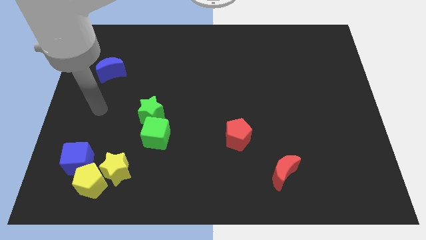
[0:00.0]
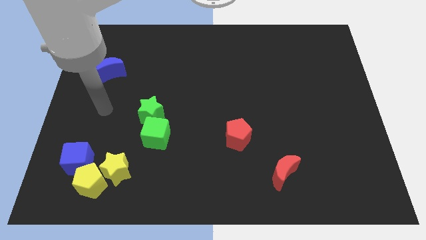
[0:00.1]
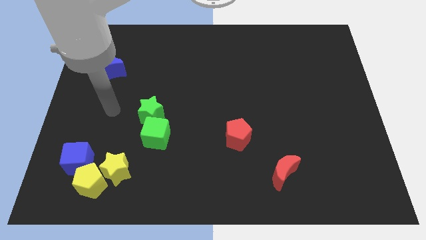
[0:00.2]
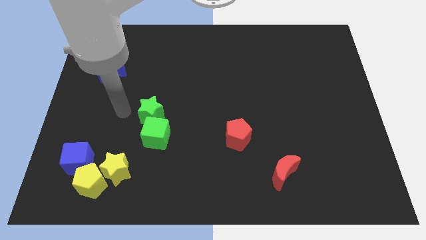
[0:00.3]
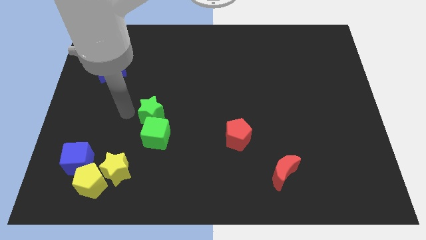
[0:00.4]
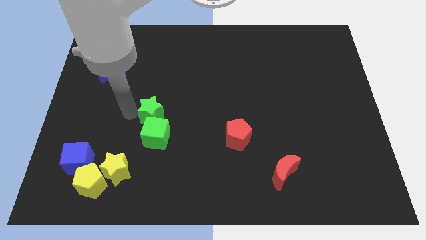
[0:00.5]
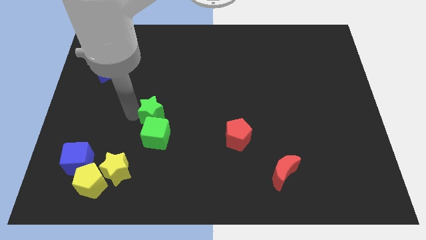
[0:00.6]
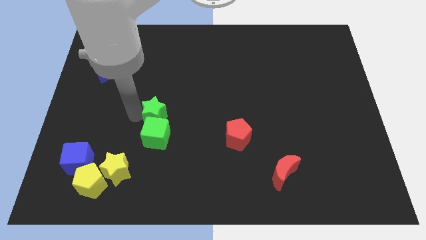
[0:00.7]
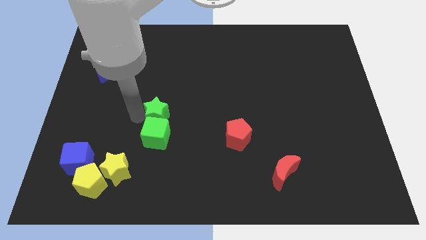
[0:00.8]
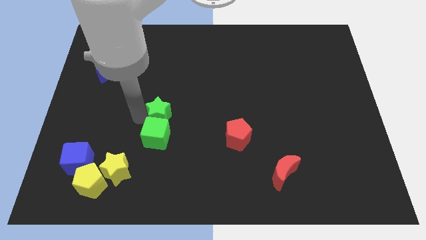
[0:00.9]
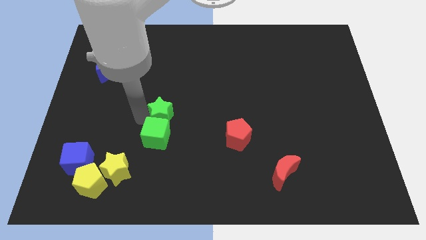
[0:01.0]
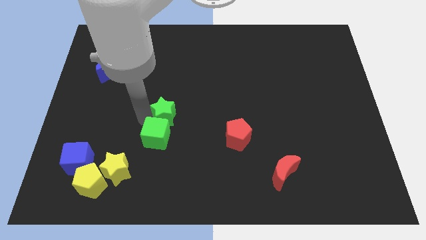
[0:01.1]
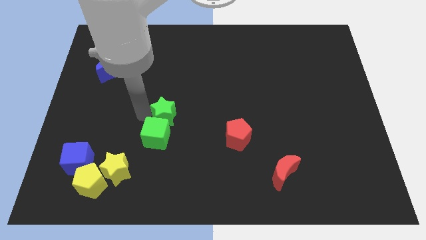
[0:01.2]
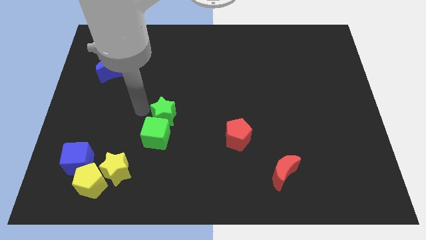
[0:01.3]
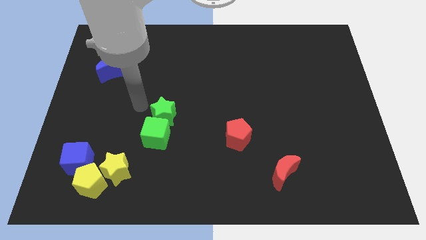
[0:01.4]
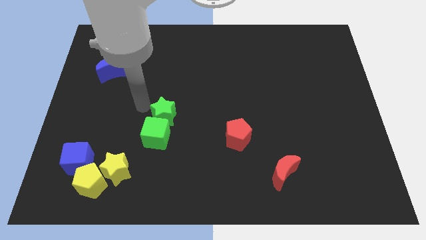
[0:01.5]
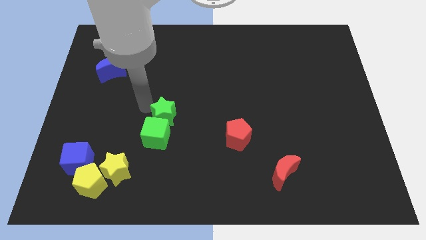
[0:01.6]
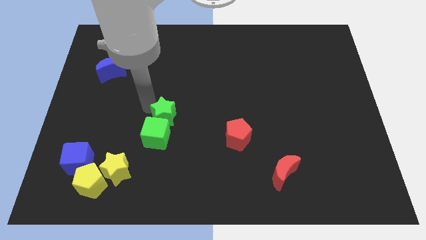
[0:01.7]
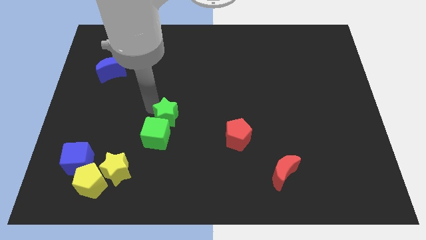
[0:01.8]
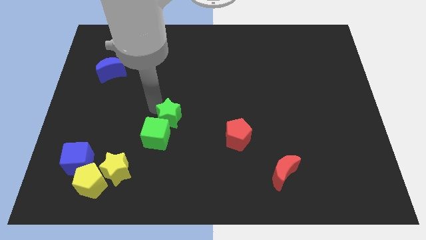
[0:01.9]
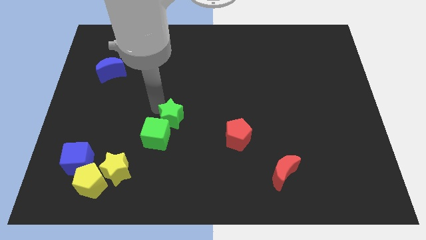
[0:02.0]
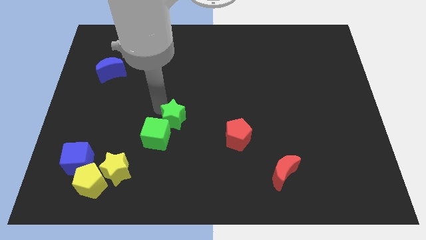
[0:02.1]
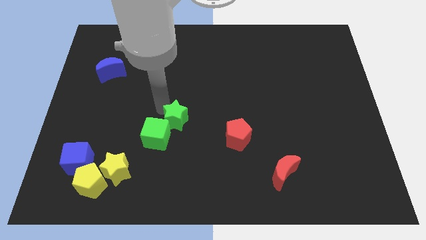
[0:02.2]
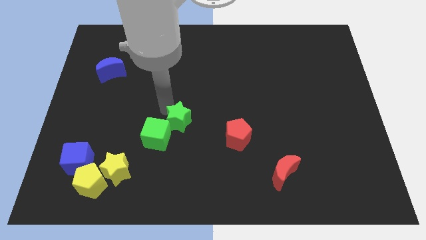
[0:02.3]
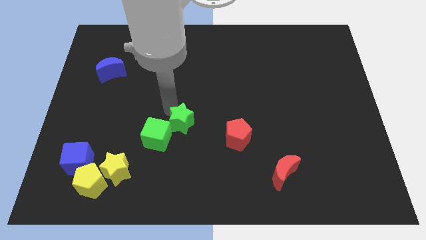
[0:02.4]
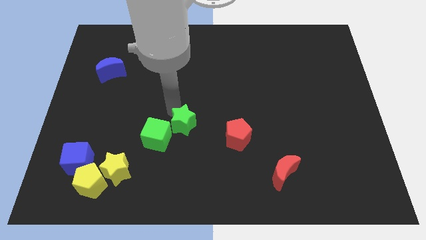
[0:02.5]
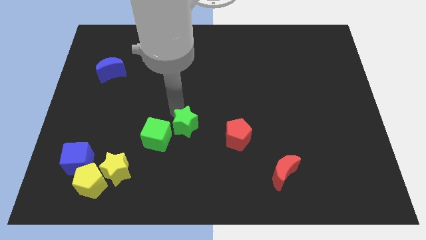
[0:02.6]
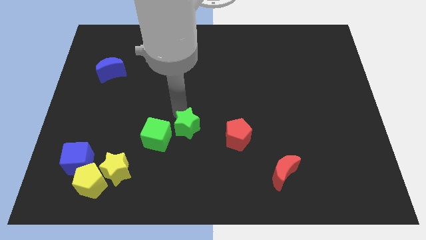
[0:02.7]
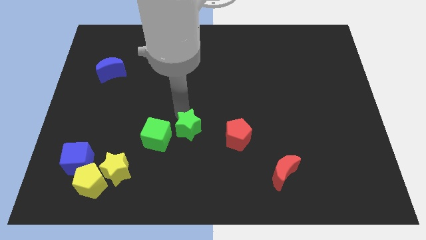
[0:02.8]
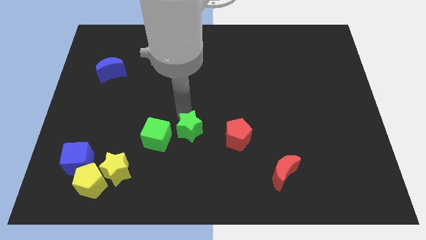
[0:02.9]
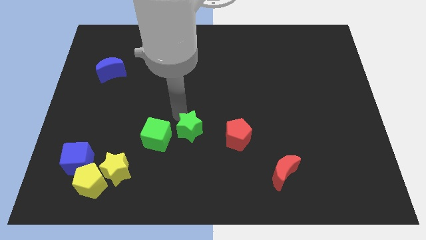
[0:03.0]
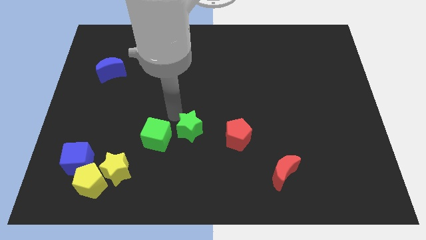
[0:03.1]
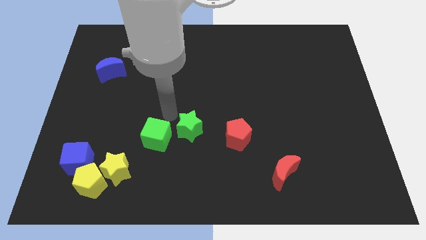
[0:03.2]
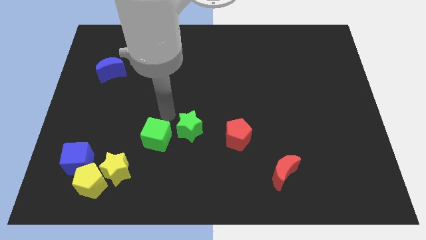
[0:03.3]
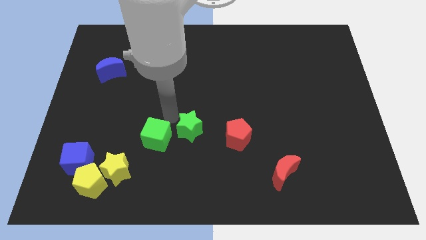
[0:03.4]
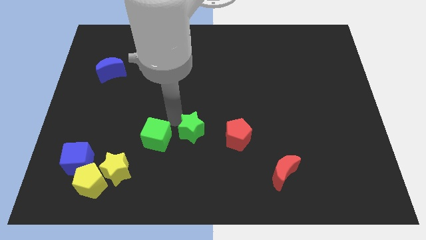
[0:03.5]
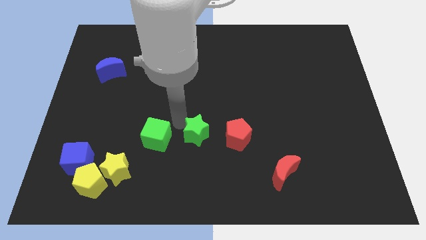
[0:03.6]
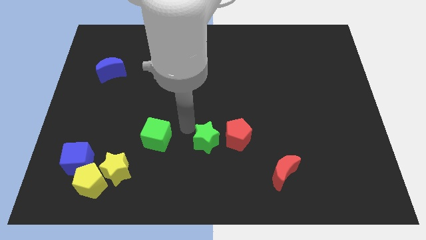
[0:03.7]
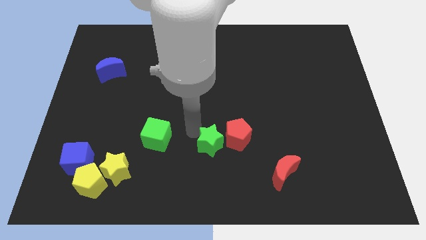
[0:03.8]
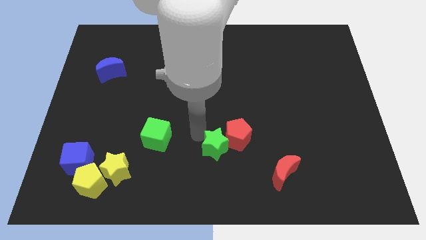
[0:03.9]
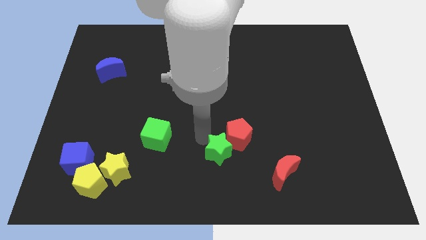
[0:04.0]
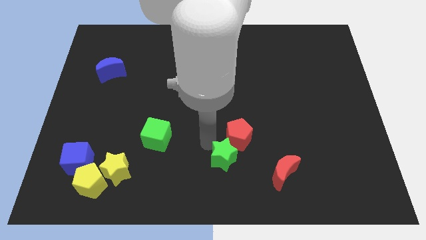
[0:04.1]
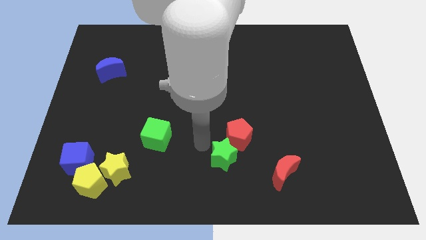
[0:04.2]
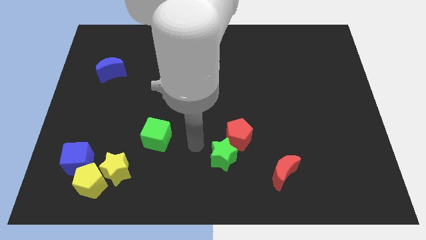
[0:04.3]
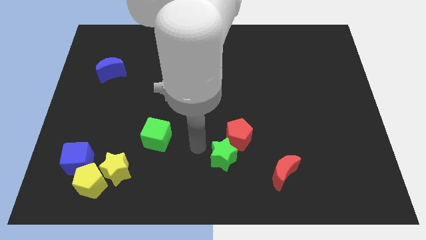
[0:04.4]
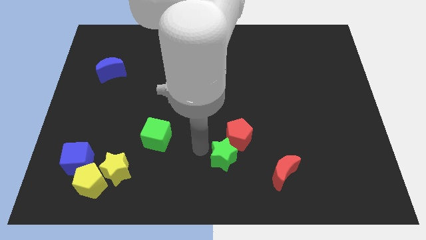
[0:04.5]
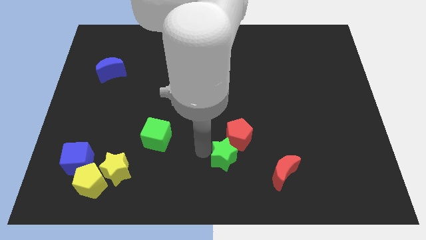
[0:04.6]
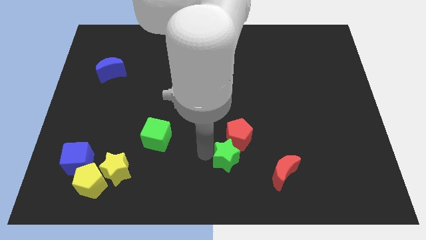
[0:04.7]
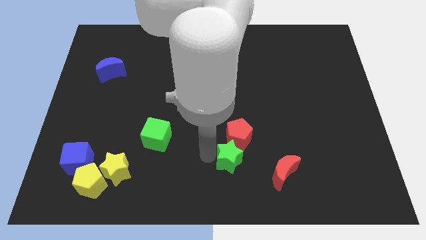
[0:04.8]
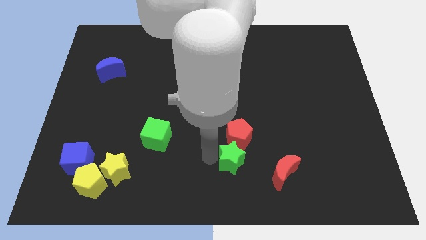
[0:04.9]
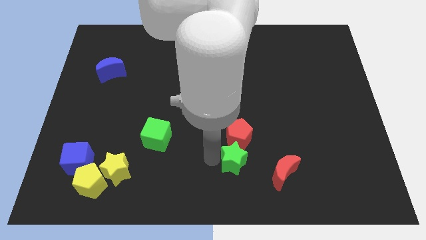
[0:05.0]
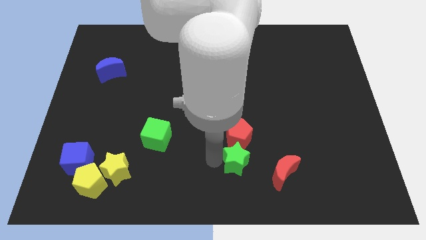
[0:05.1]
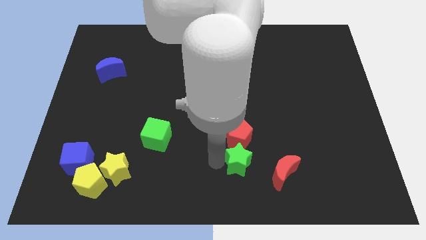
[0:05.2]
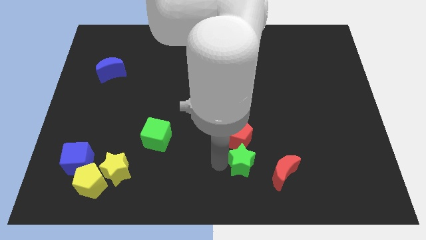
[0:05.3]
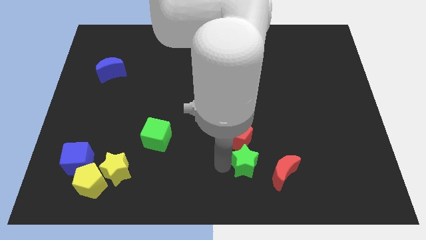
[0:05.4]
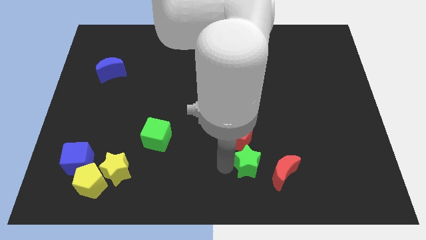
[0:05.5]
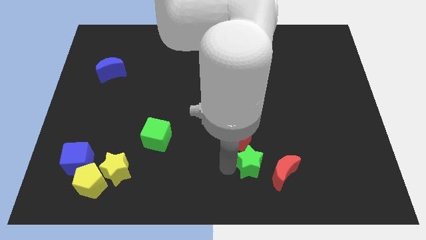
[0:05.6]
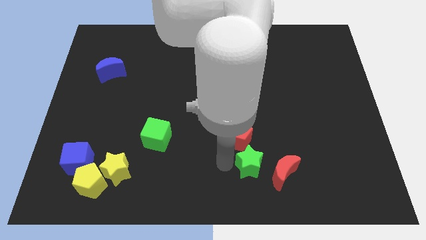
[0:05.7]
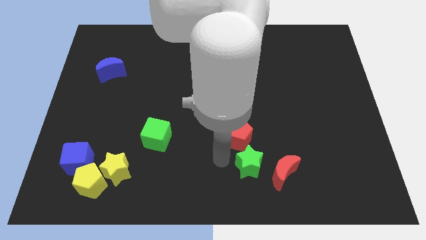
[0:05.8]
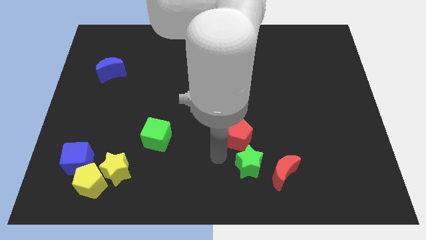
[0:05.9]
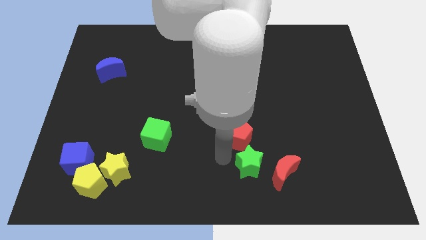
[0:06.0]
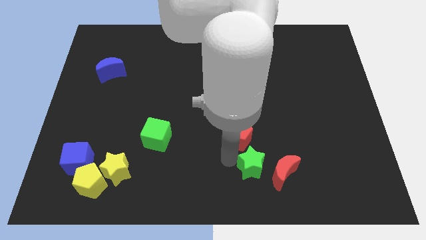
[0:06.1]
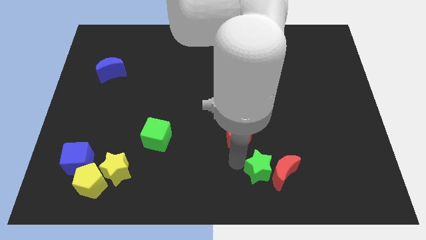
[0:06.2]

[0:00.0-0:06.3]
slide the green star close to the red moon

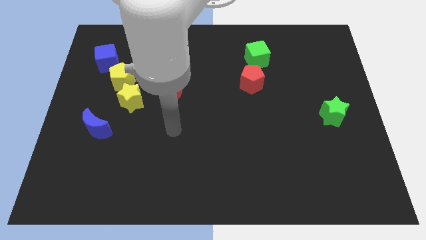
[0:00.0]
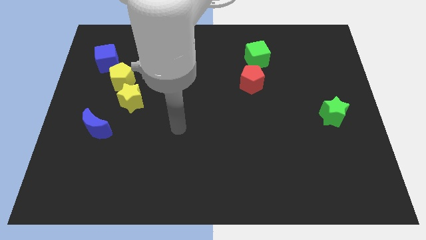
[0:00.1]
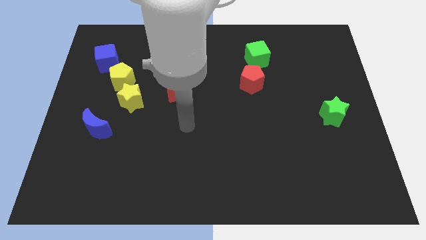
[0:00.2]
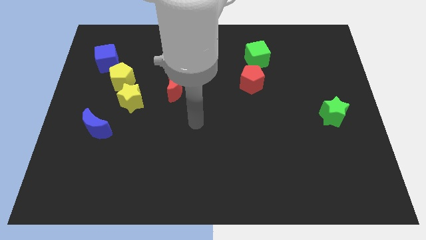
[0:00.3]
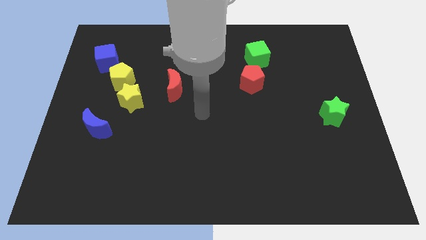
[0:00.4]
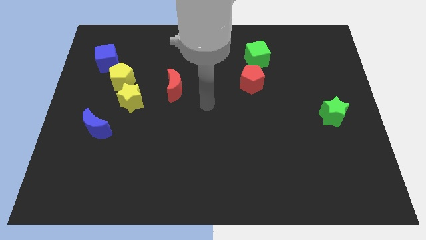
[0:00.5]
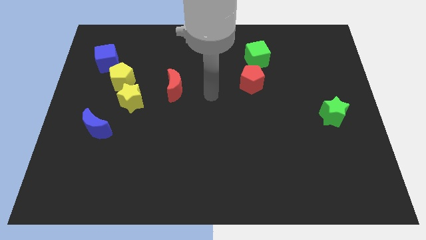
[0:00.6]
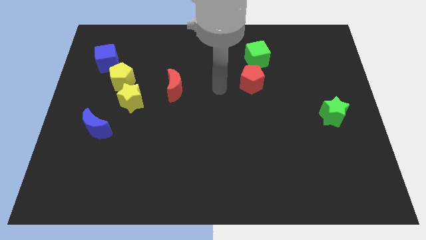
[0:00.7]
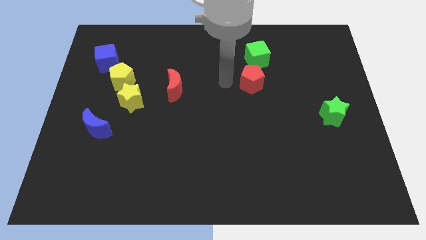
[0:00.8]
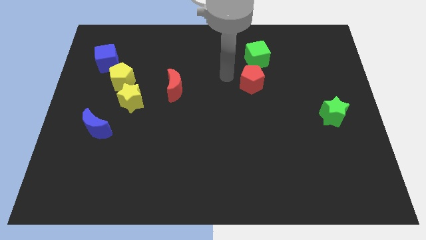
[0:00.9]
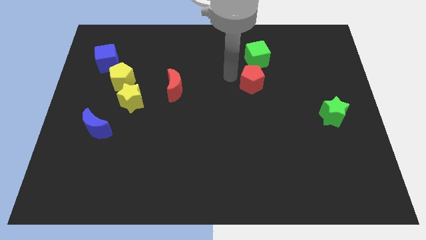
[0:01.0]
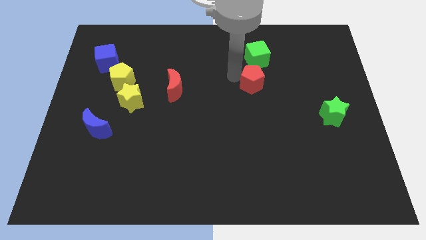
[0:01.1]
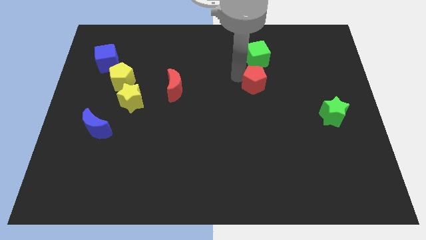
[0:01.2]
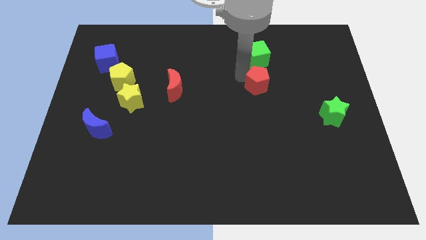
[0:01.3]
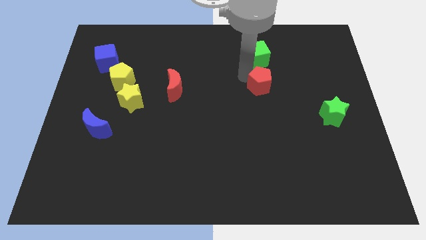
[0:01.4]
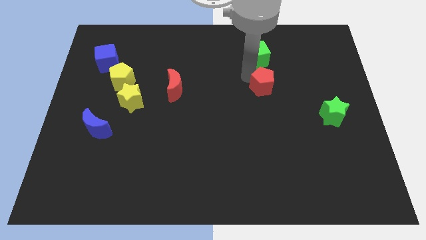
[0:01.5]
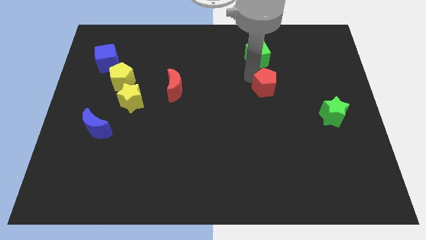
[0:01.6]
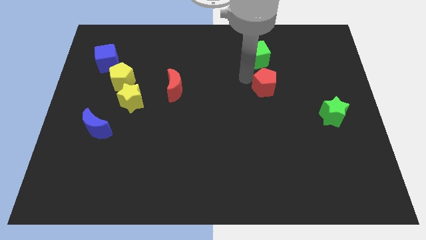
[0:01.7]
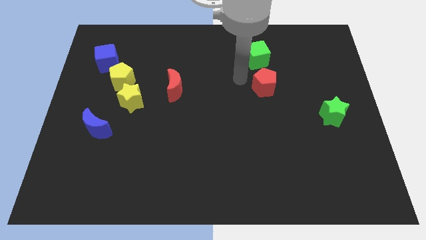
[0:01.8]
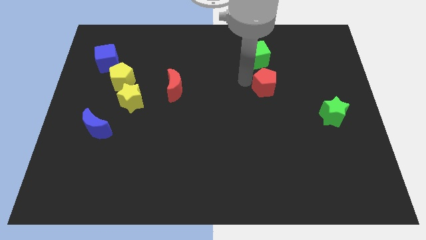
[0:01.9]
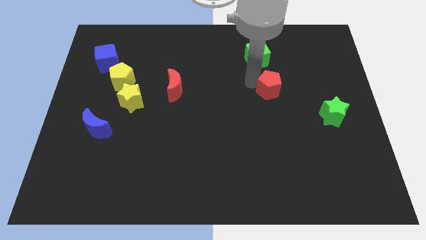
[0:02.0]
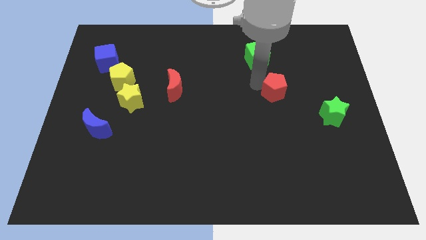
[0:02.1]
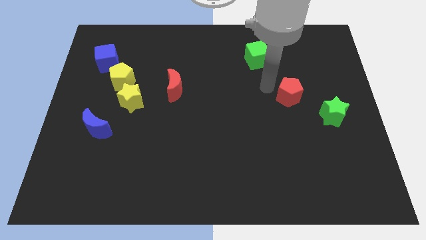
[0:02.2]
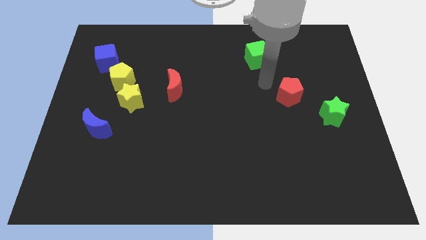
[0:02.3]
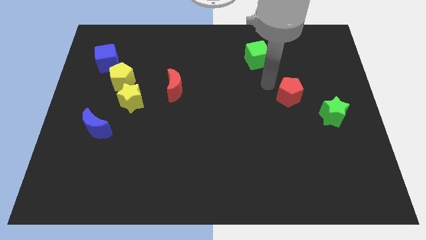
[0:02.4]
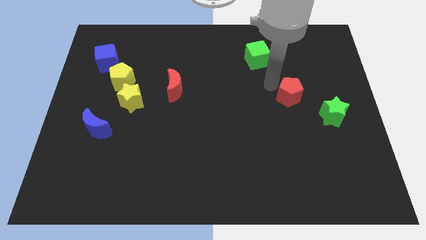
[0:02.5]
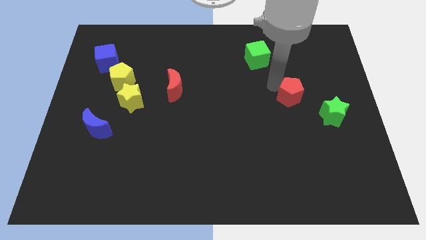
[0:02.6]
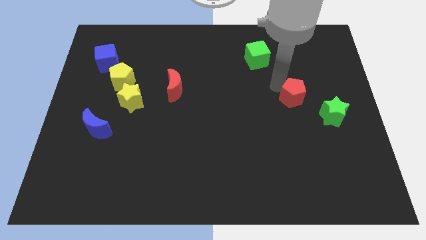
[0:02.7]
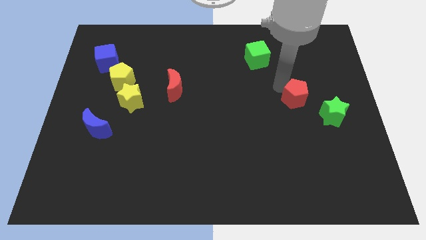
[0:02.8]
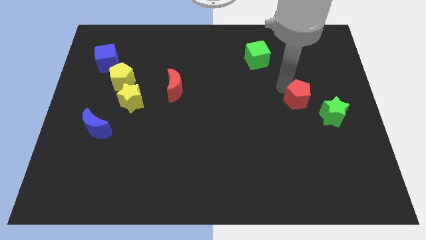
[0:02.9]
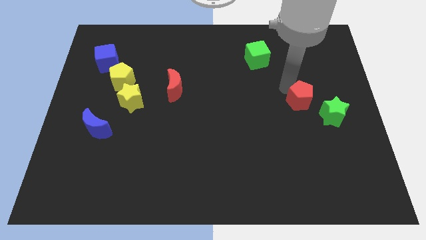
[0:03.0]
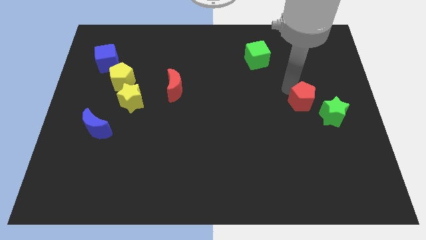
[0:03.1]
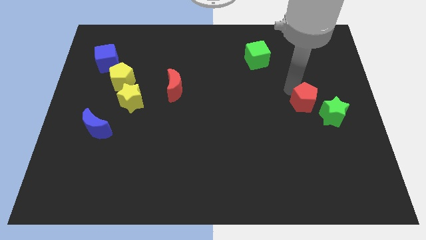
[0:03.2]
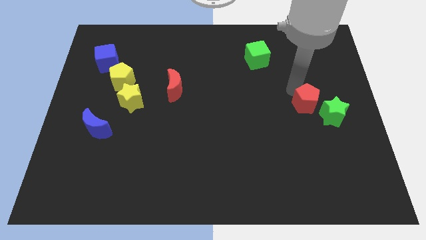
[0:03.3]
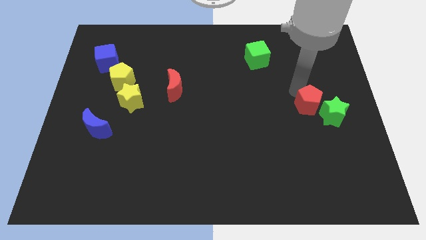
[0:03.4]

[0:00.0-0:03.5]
put the red pentagon to the green star
